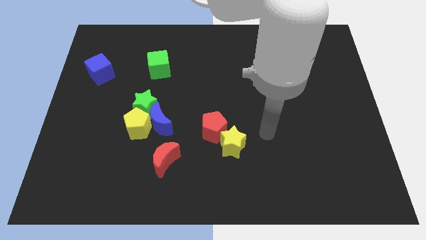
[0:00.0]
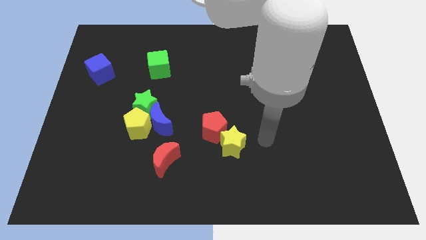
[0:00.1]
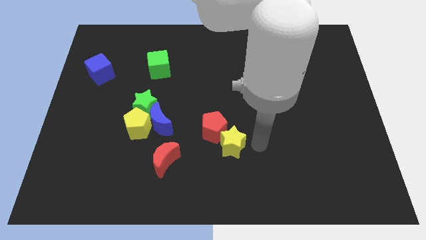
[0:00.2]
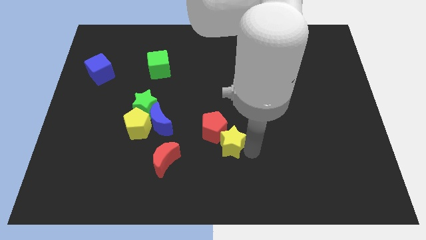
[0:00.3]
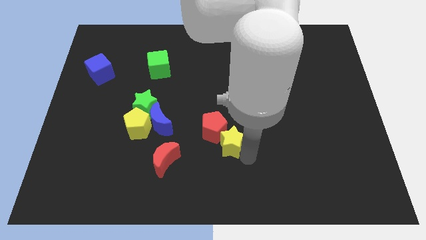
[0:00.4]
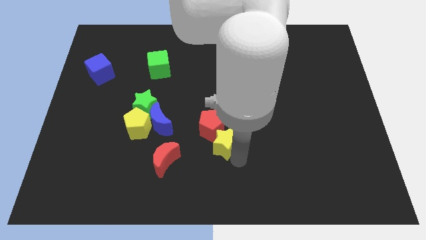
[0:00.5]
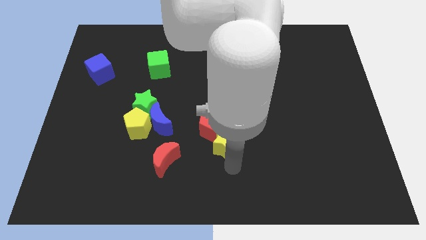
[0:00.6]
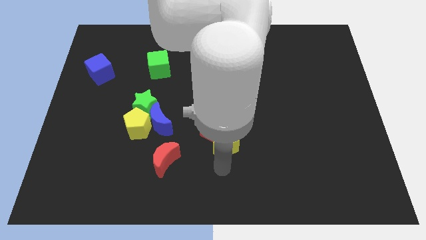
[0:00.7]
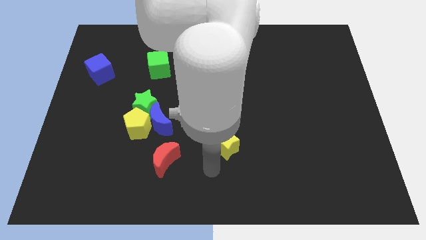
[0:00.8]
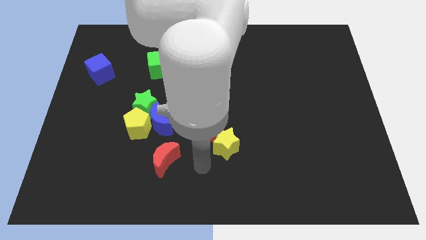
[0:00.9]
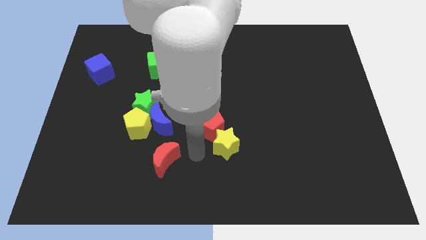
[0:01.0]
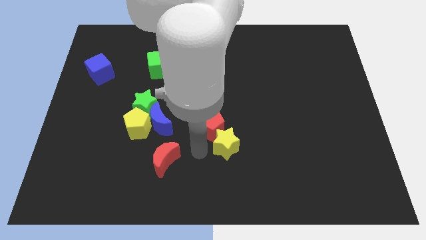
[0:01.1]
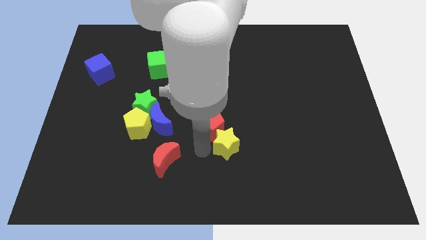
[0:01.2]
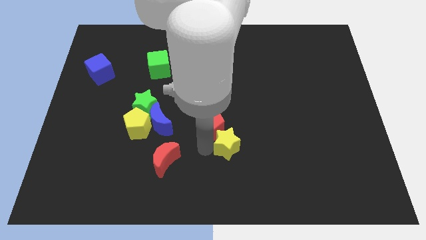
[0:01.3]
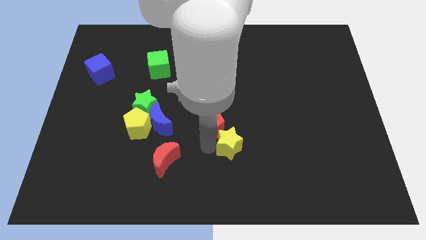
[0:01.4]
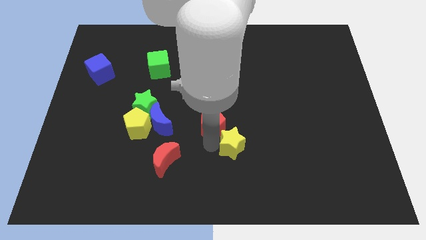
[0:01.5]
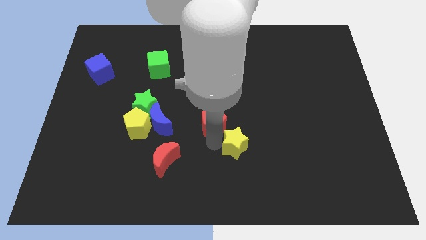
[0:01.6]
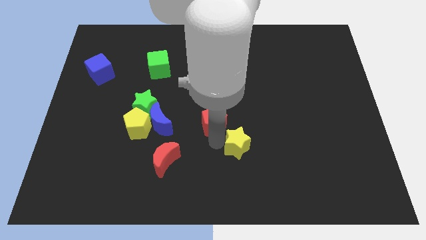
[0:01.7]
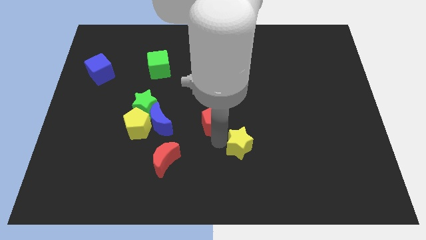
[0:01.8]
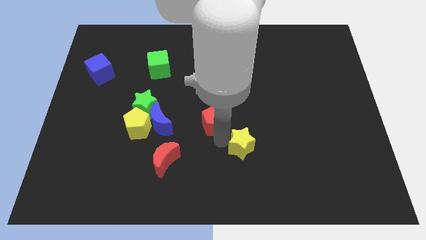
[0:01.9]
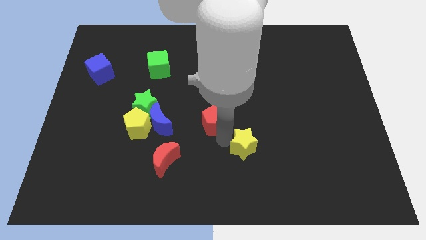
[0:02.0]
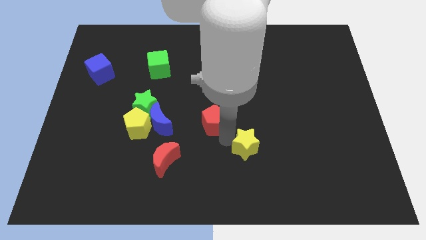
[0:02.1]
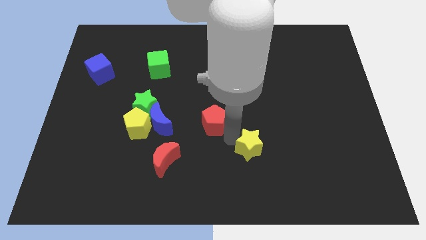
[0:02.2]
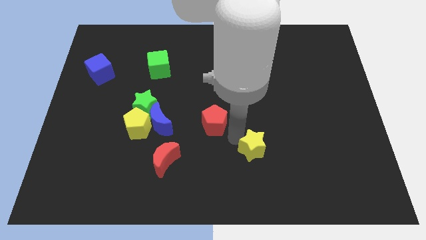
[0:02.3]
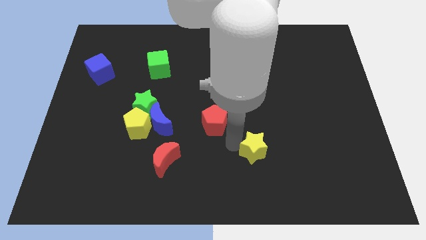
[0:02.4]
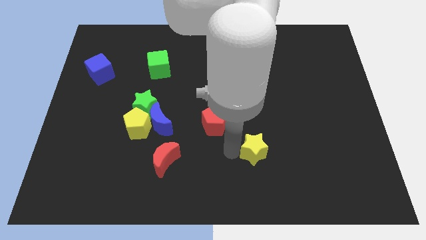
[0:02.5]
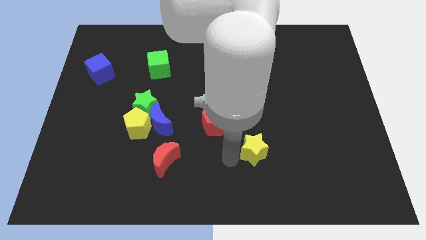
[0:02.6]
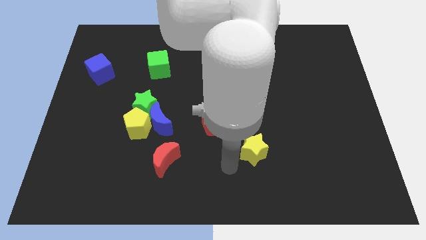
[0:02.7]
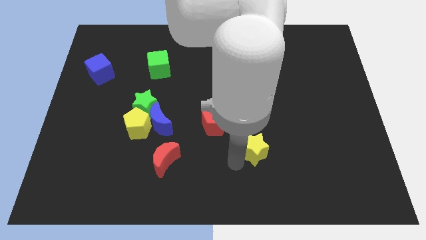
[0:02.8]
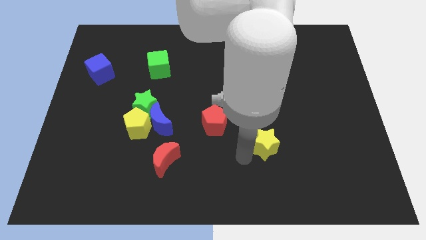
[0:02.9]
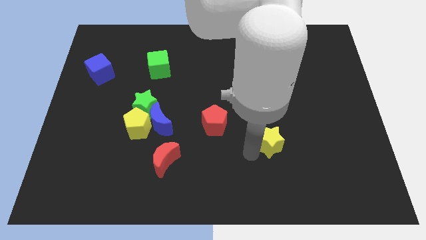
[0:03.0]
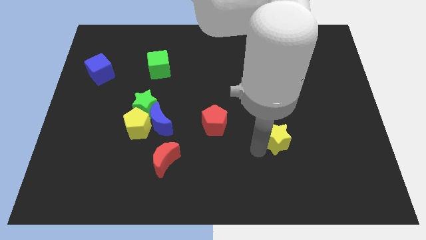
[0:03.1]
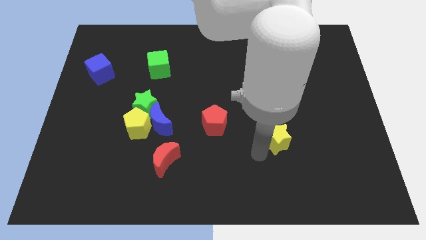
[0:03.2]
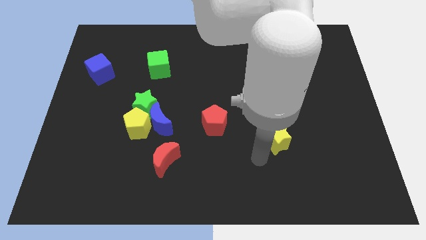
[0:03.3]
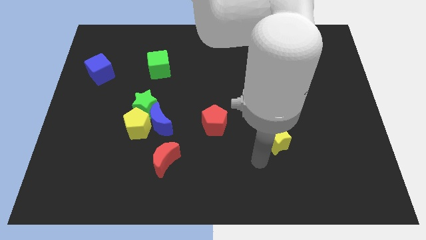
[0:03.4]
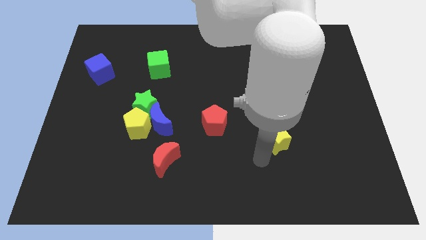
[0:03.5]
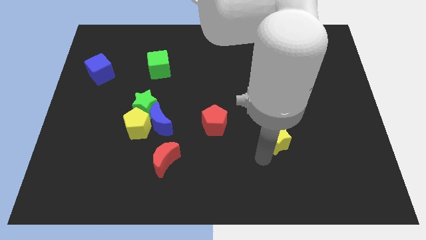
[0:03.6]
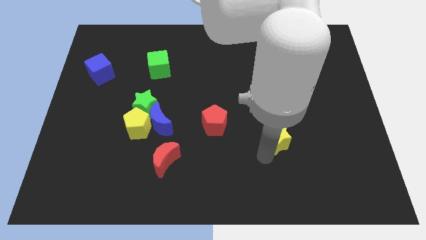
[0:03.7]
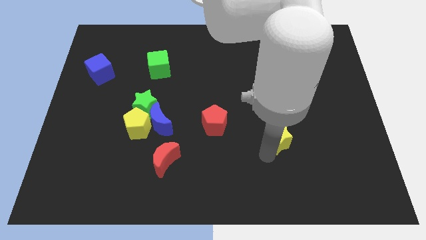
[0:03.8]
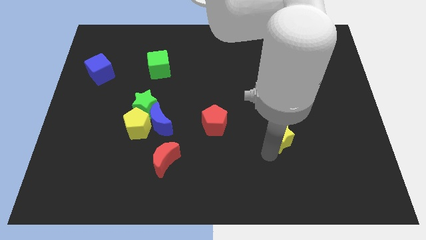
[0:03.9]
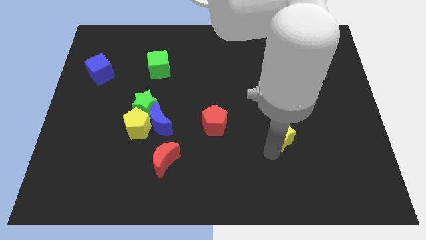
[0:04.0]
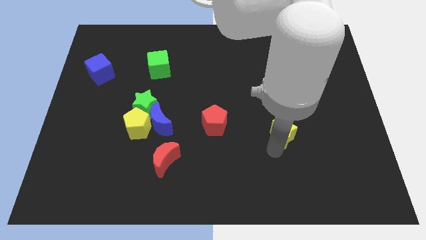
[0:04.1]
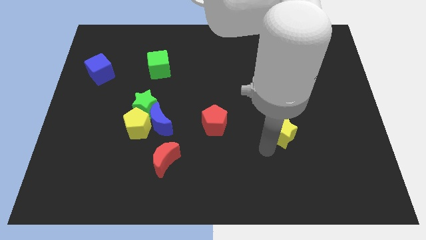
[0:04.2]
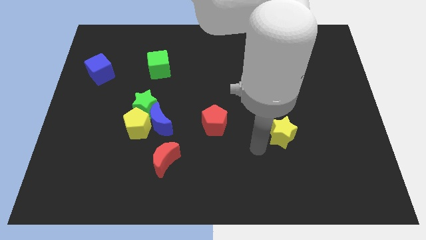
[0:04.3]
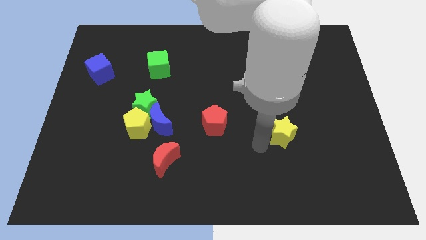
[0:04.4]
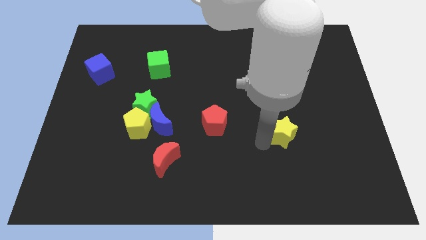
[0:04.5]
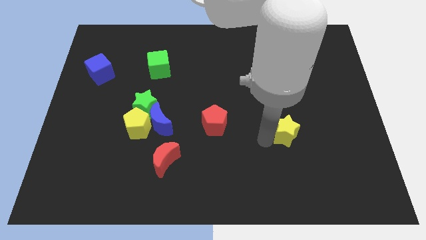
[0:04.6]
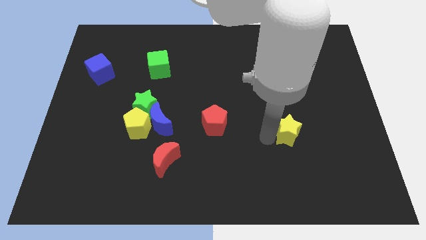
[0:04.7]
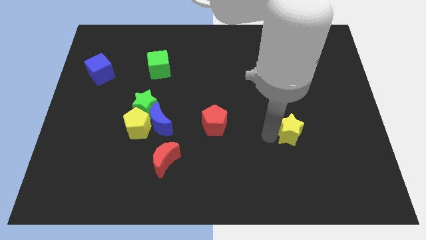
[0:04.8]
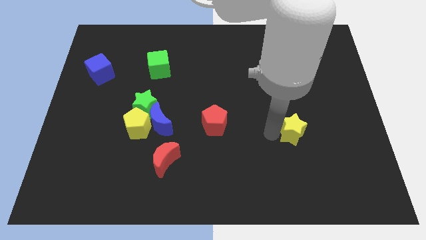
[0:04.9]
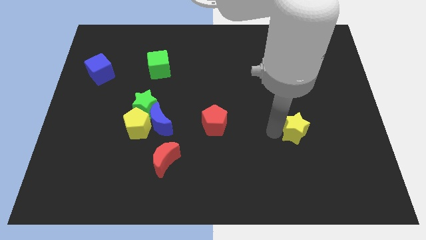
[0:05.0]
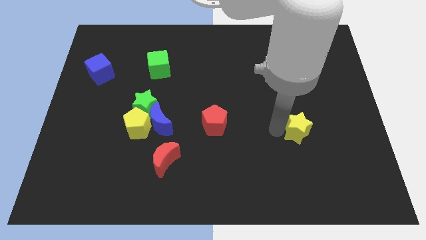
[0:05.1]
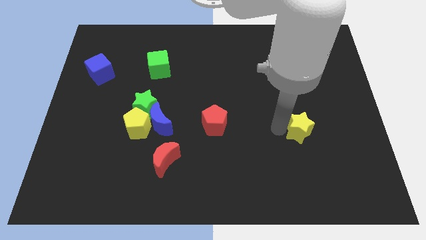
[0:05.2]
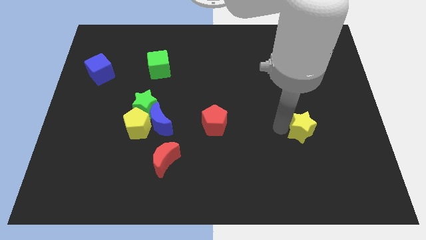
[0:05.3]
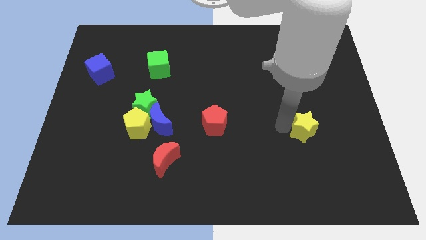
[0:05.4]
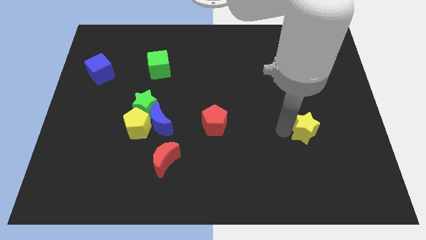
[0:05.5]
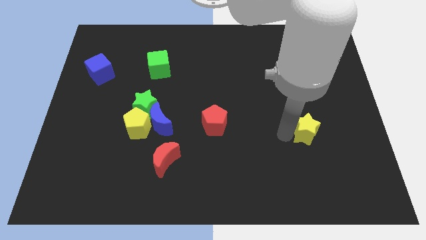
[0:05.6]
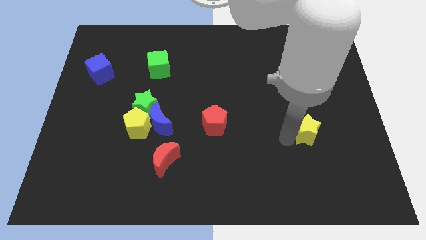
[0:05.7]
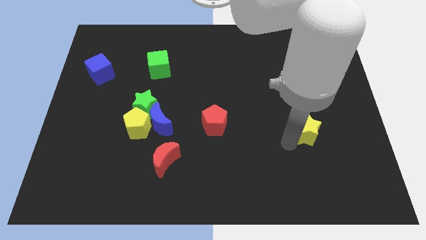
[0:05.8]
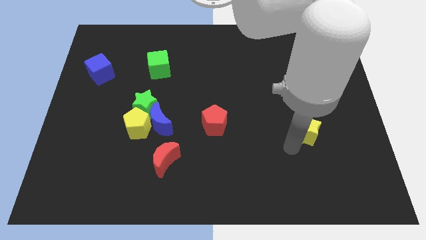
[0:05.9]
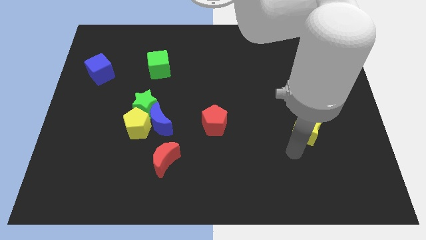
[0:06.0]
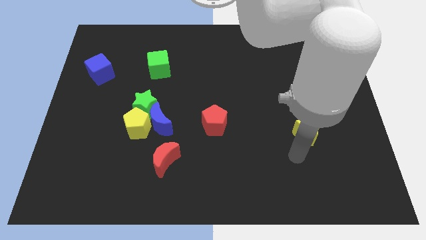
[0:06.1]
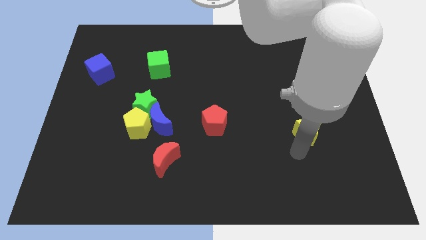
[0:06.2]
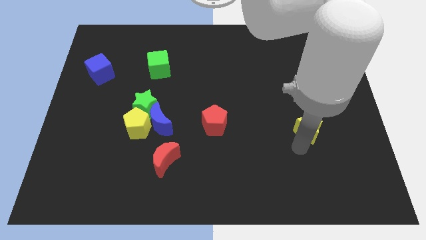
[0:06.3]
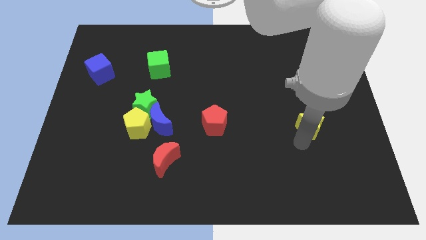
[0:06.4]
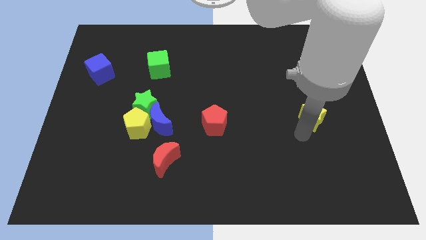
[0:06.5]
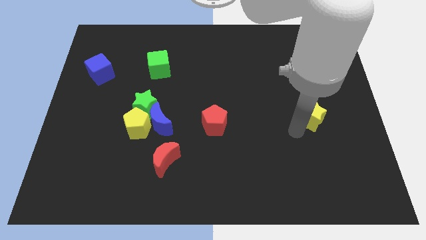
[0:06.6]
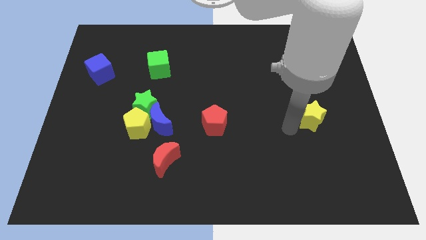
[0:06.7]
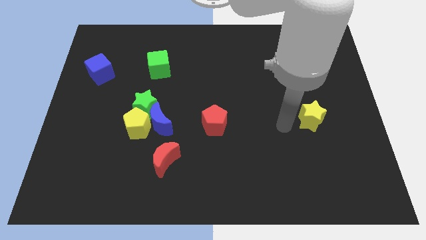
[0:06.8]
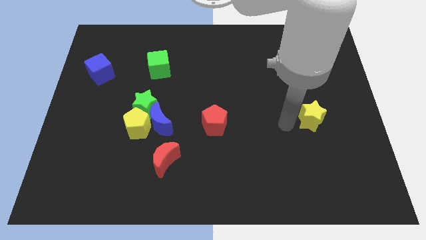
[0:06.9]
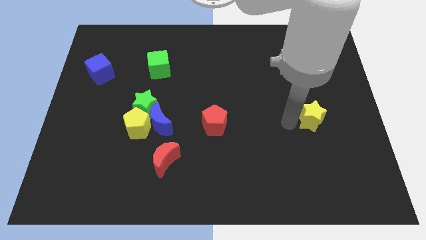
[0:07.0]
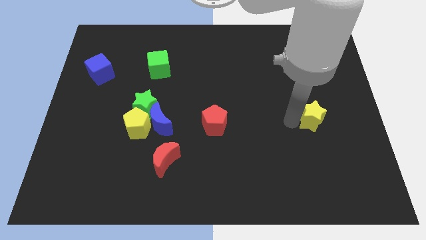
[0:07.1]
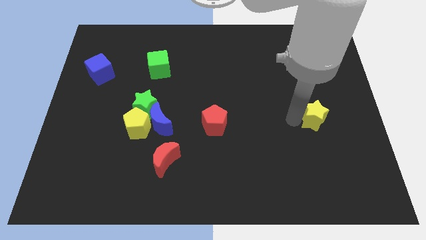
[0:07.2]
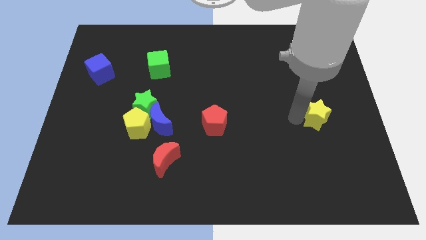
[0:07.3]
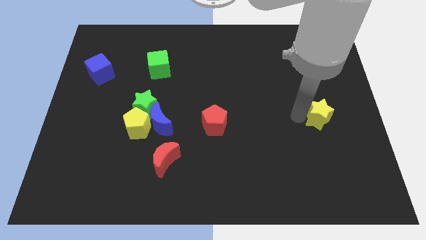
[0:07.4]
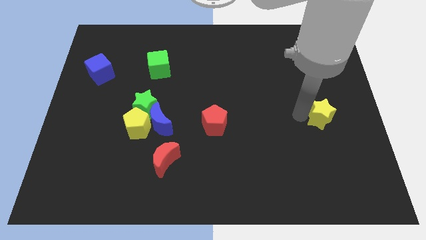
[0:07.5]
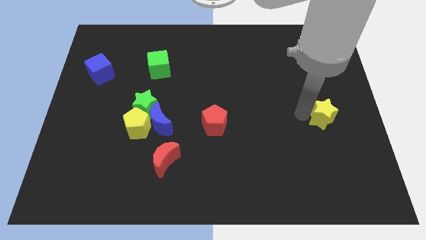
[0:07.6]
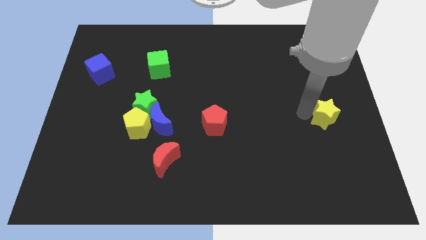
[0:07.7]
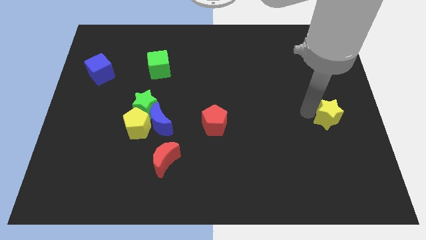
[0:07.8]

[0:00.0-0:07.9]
move the yellow star to the center right

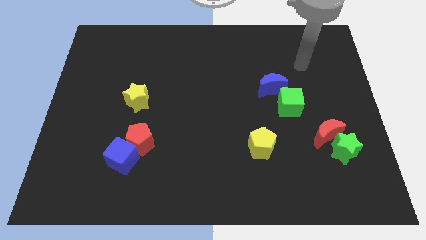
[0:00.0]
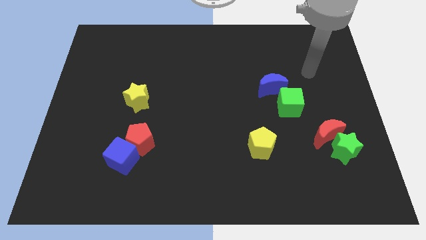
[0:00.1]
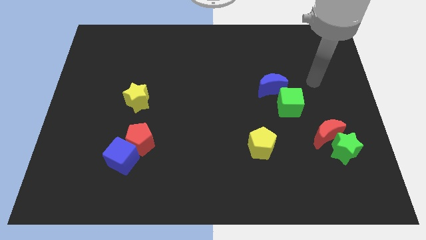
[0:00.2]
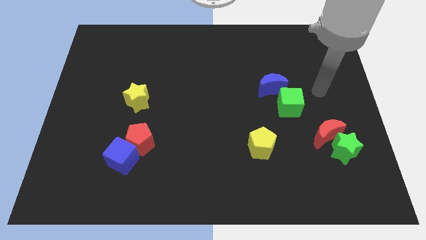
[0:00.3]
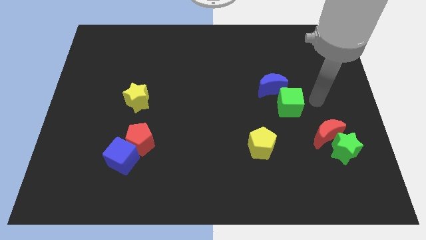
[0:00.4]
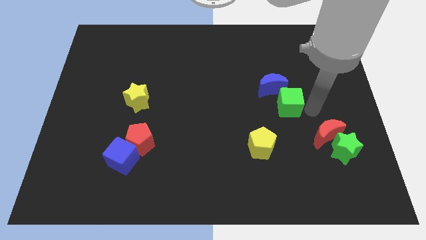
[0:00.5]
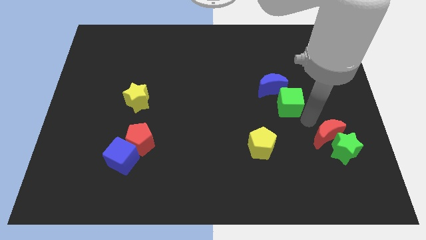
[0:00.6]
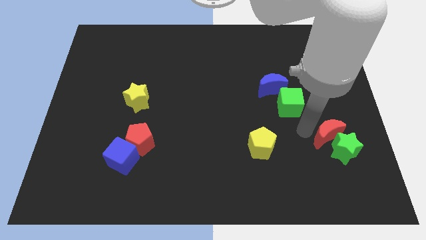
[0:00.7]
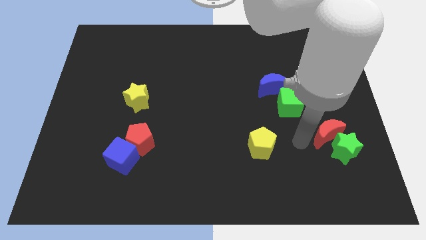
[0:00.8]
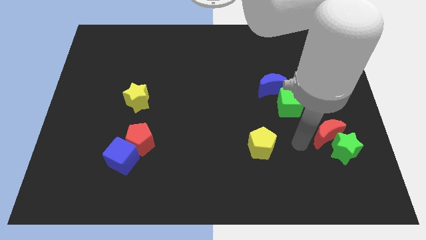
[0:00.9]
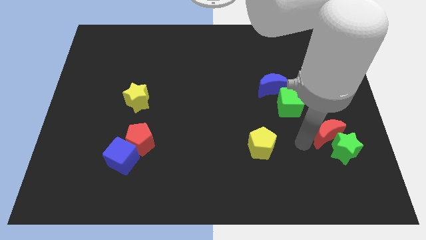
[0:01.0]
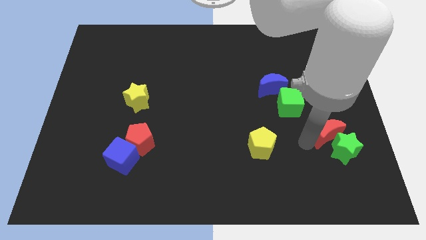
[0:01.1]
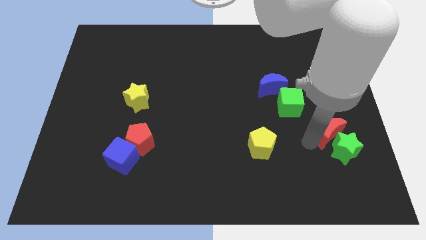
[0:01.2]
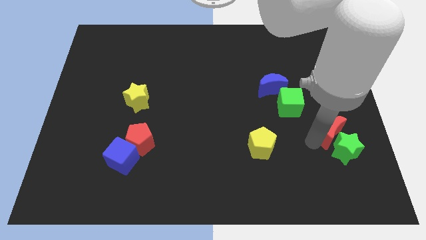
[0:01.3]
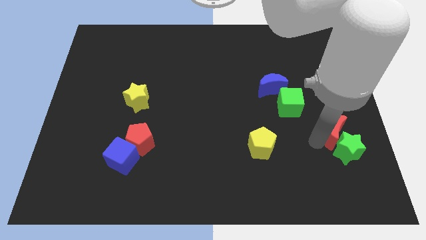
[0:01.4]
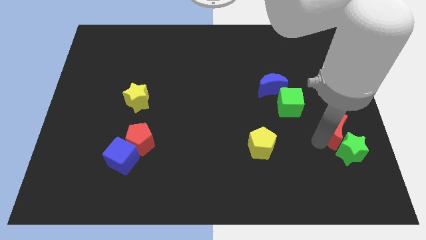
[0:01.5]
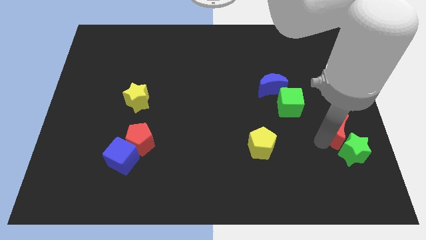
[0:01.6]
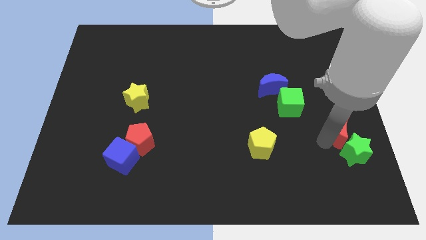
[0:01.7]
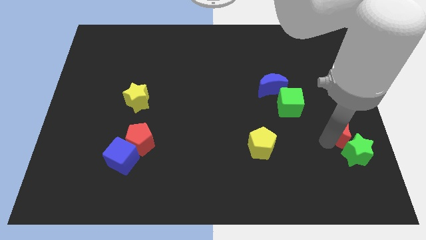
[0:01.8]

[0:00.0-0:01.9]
slide the red moon to the right side of the board
